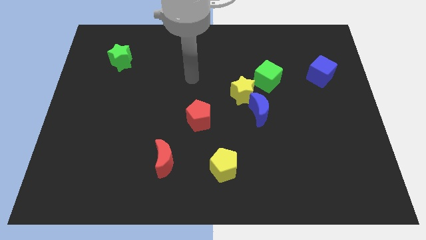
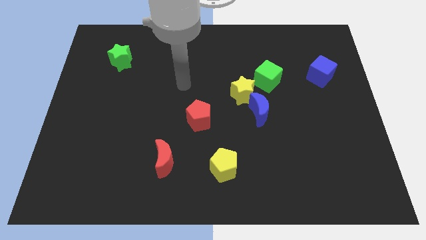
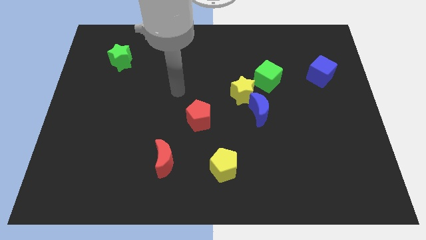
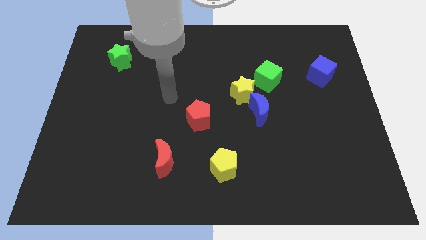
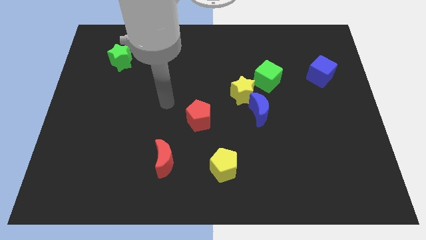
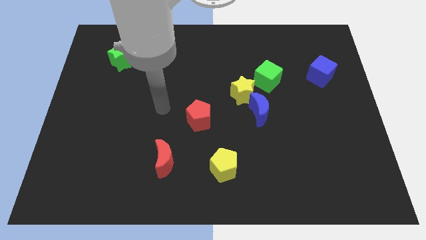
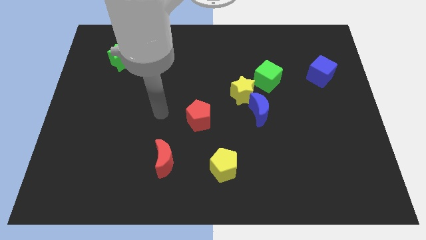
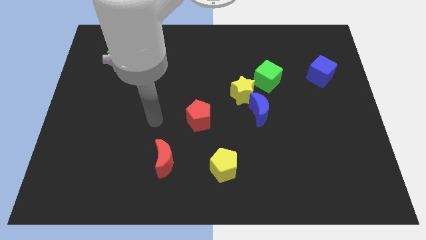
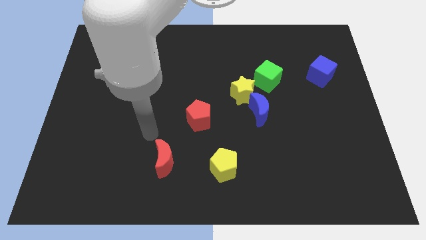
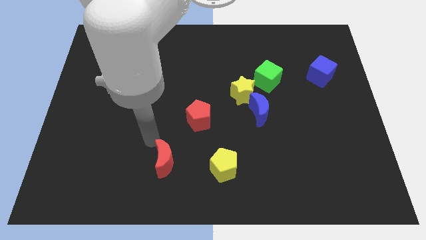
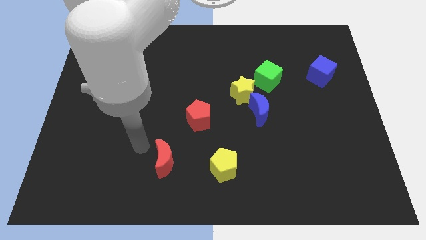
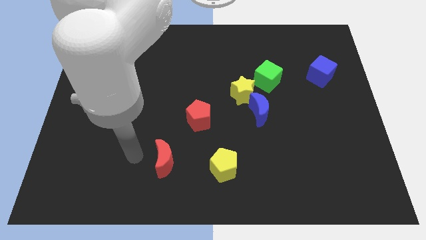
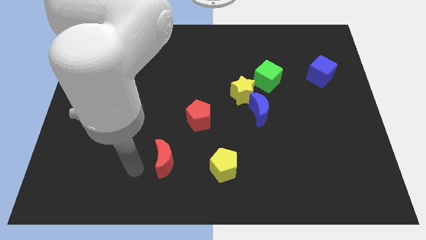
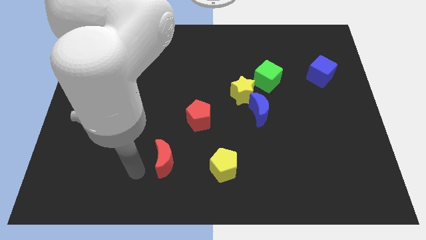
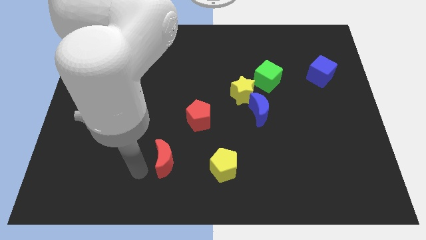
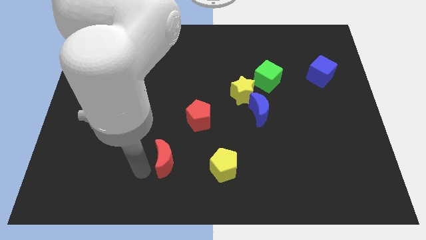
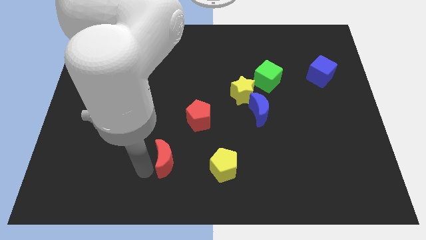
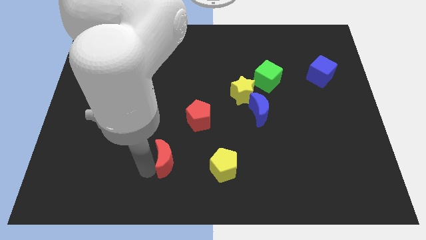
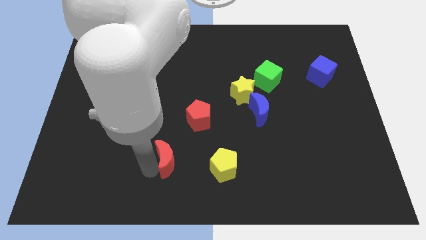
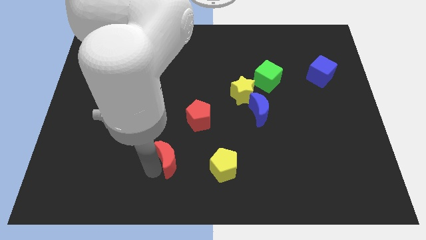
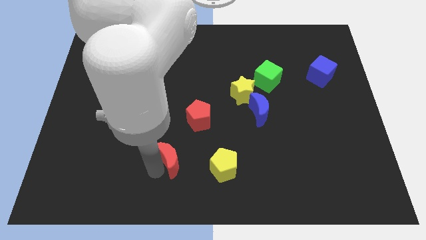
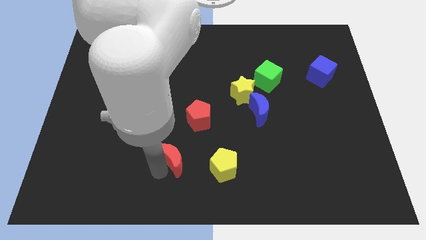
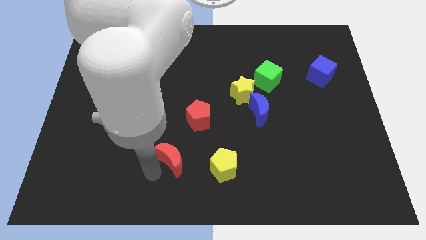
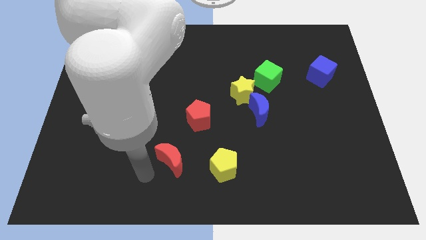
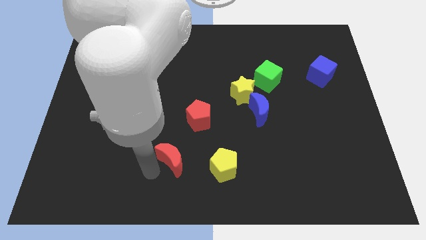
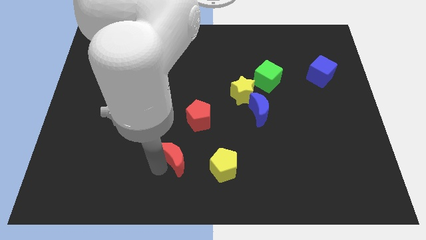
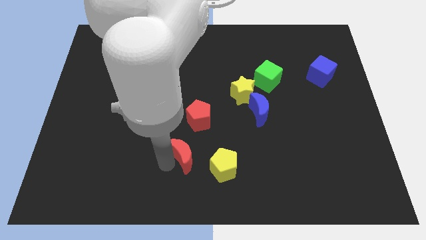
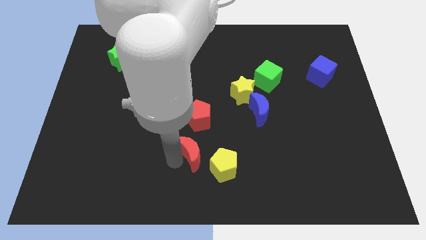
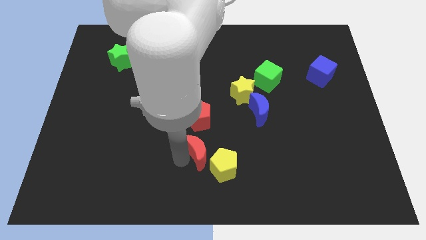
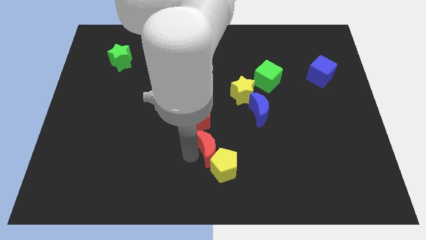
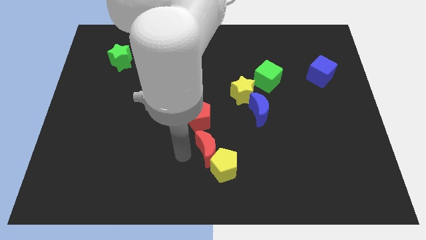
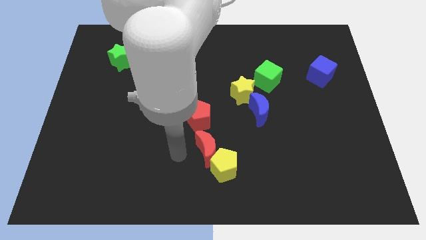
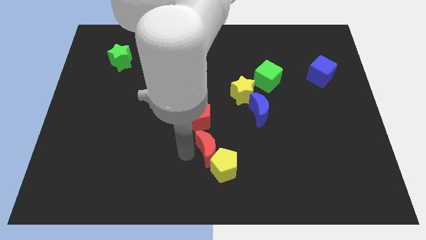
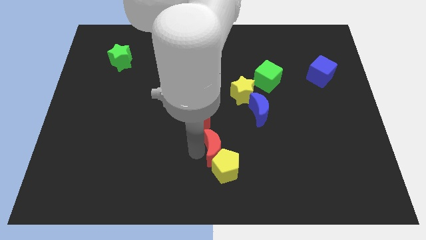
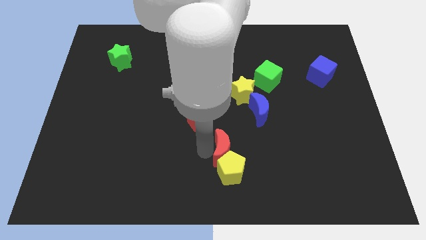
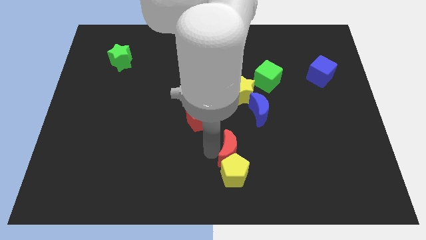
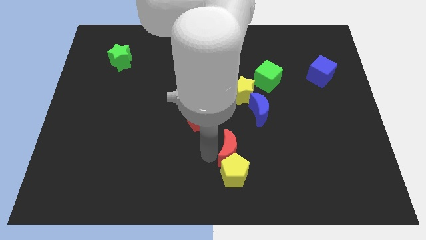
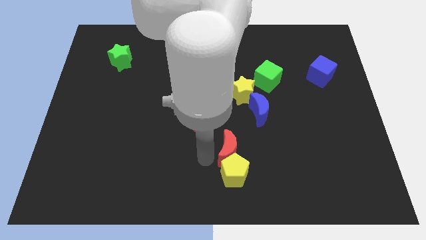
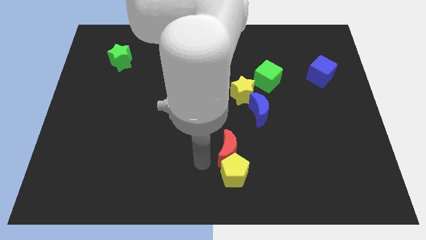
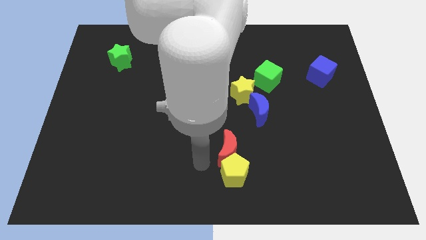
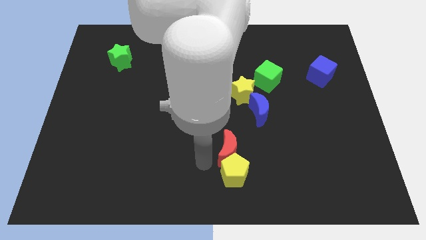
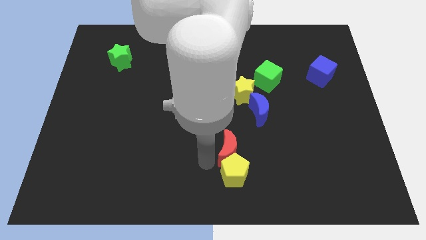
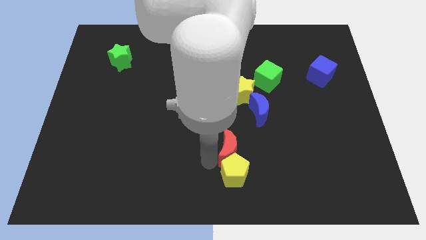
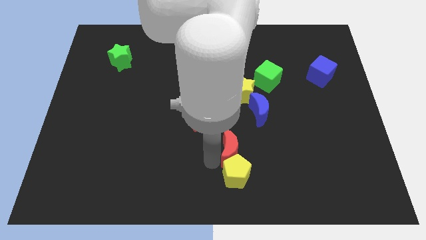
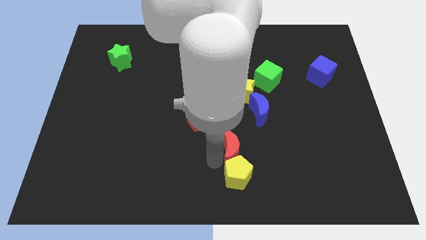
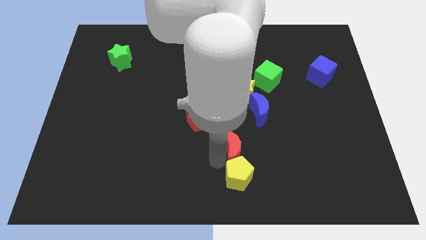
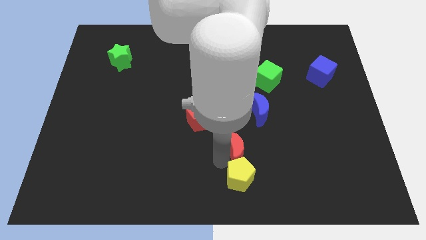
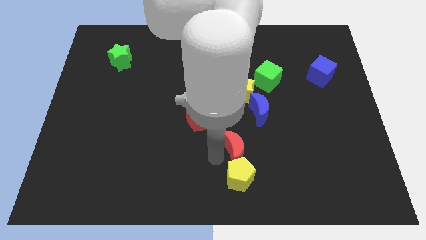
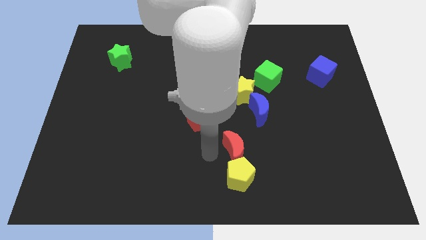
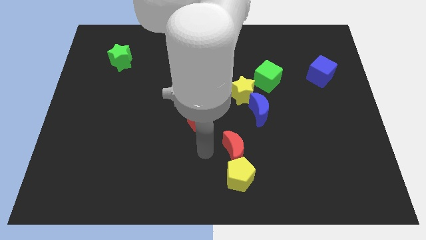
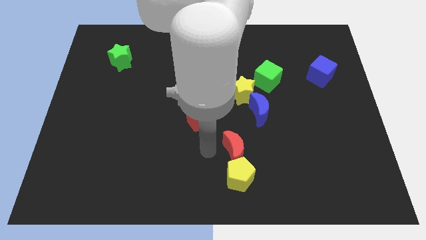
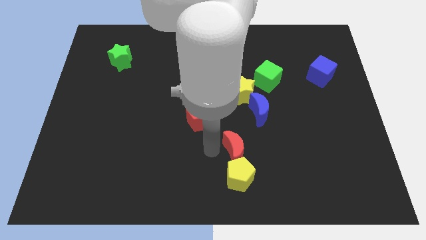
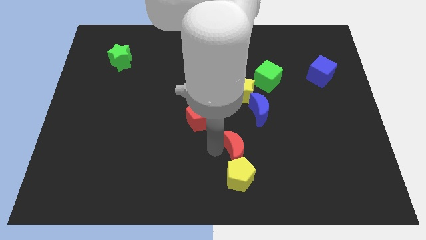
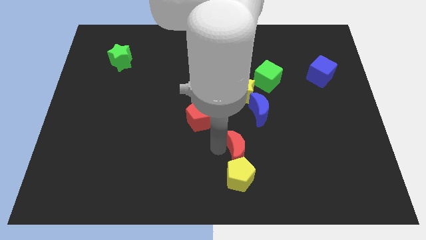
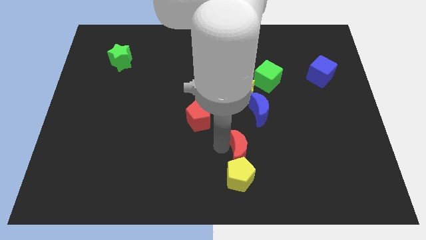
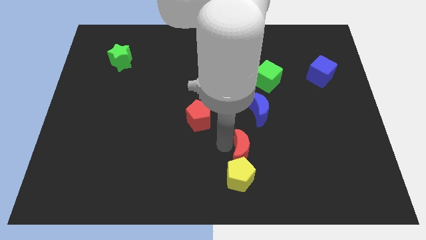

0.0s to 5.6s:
push the red moon to the bottom side of the blue moon

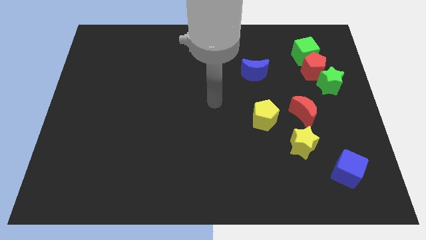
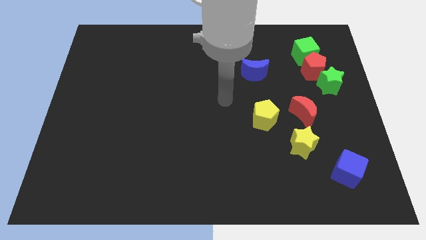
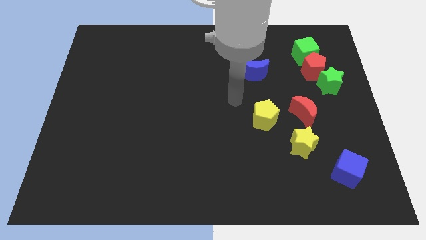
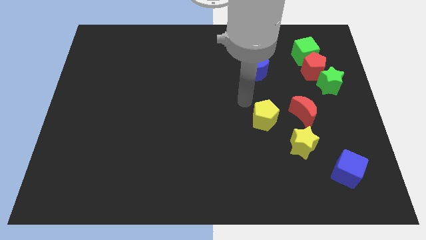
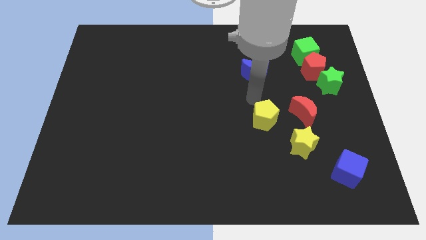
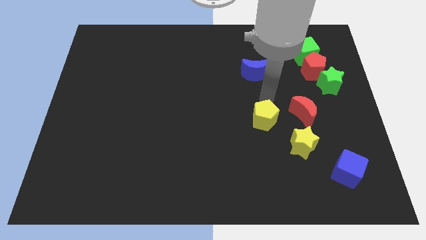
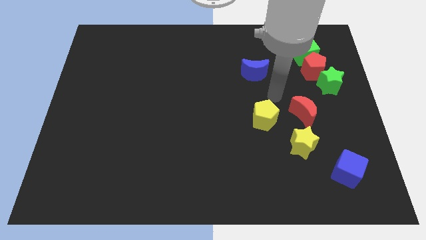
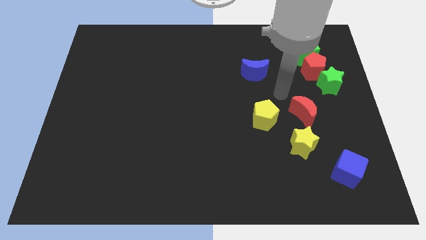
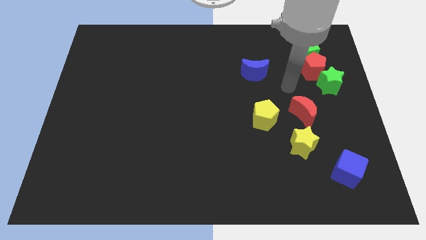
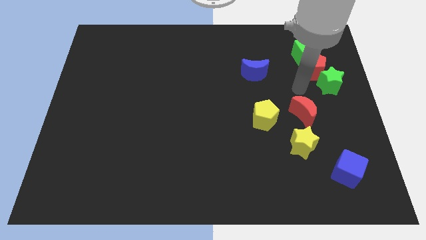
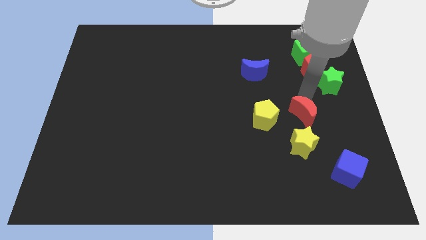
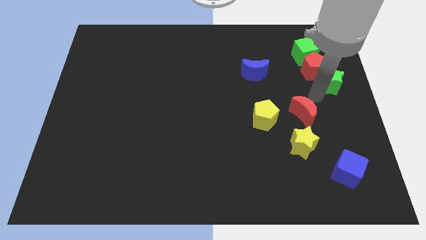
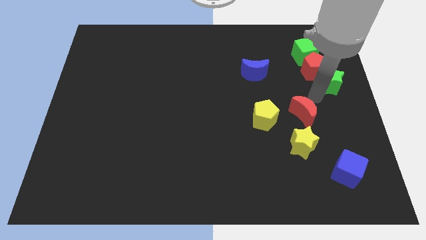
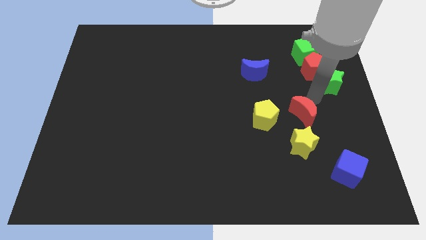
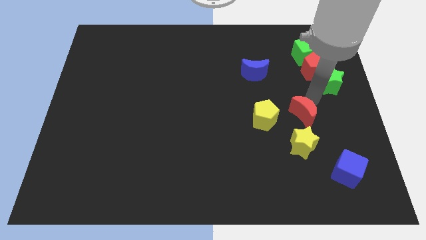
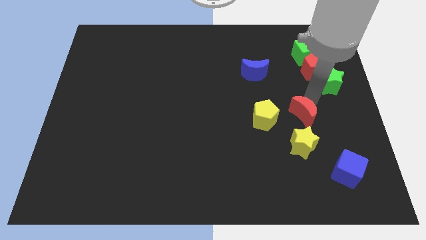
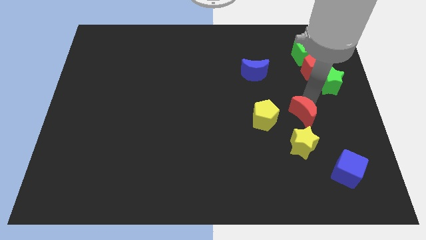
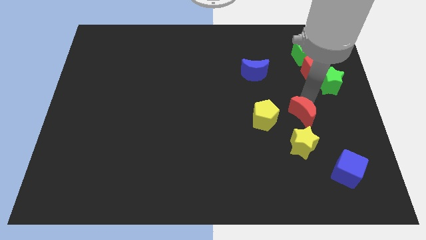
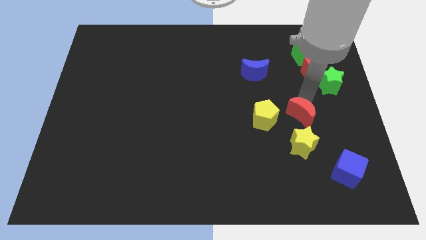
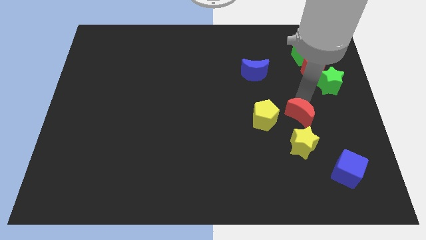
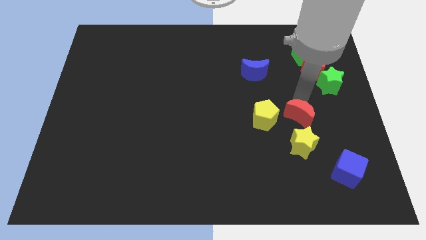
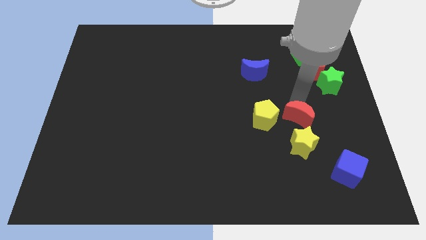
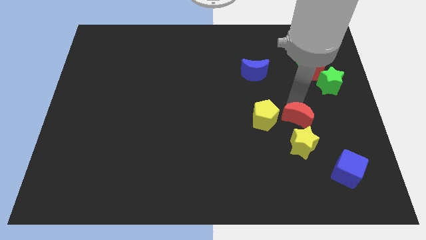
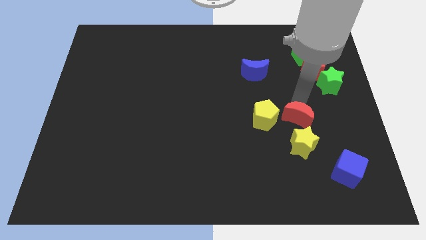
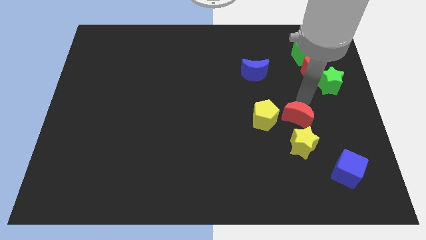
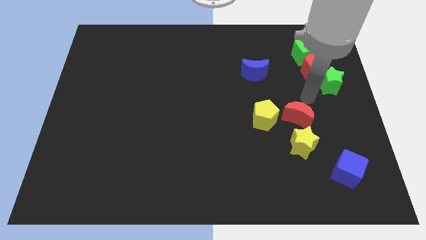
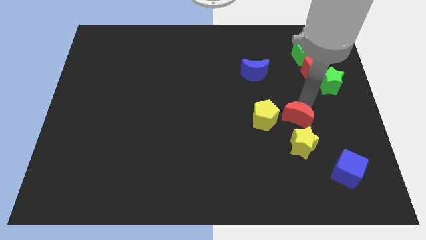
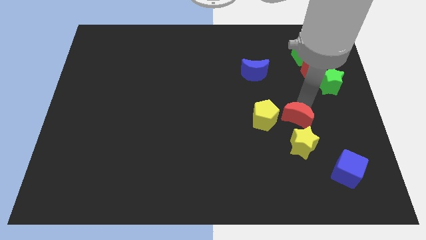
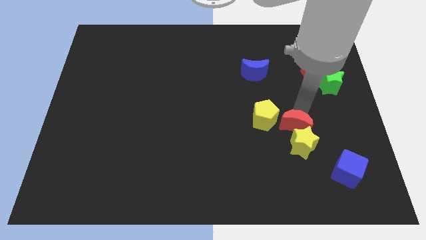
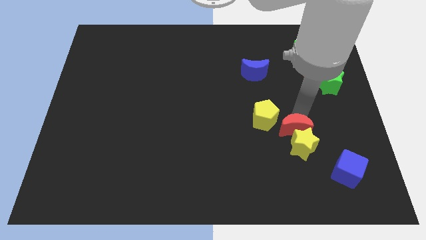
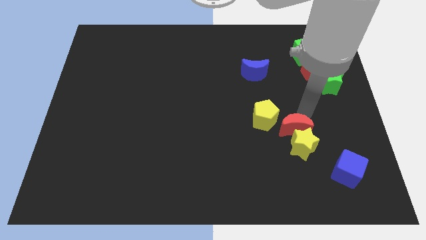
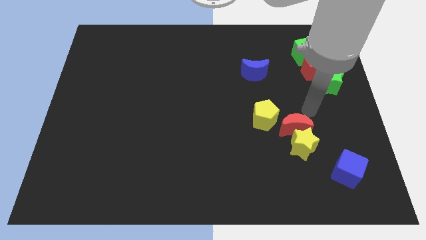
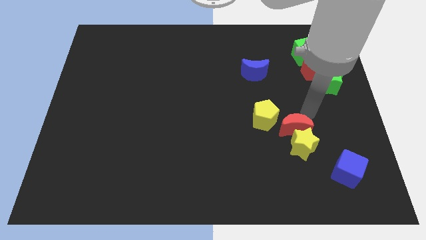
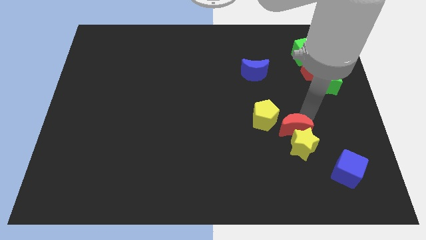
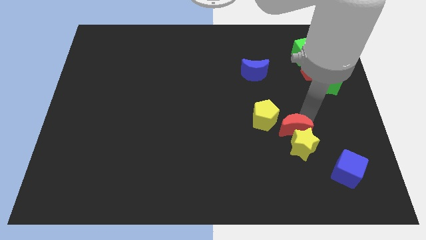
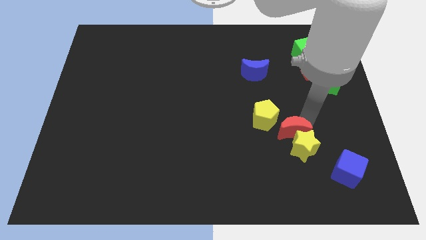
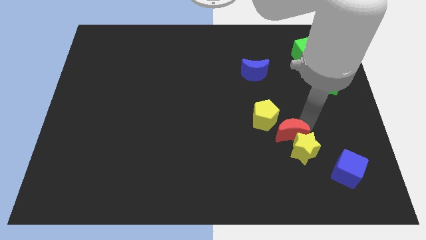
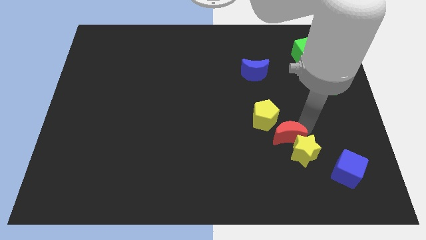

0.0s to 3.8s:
slide the red moon below the yellow pentagon
